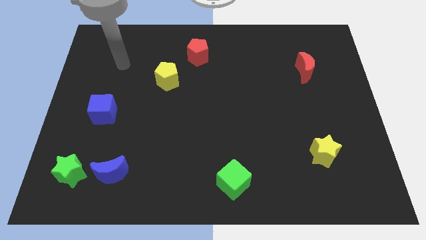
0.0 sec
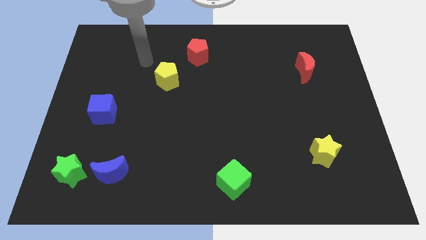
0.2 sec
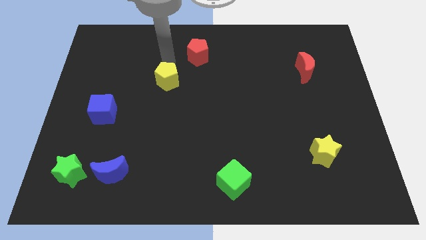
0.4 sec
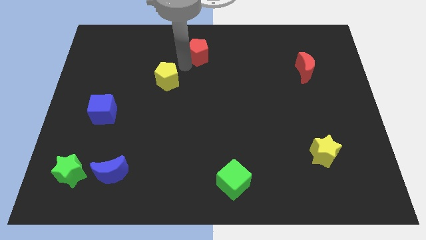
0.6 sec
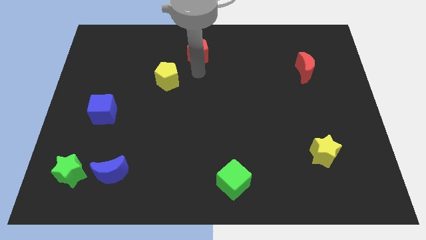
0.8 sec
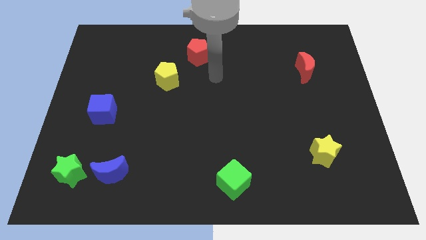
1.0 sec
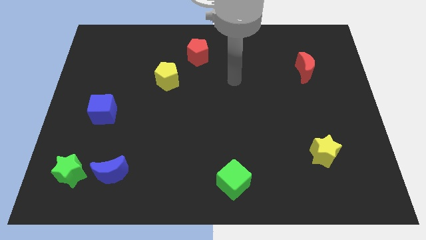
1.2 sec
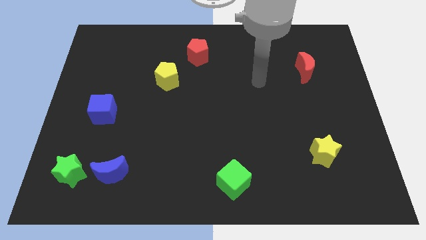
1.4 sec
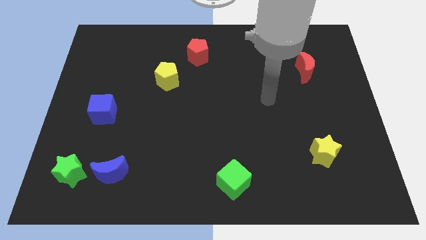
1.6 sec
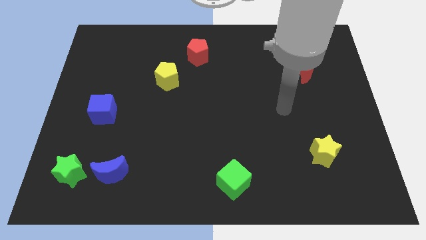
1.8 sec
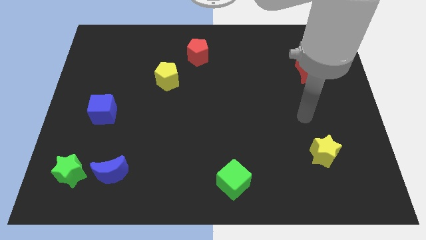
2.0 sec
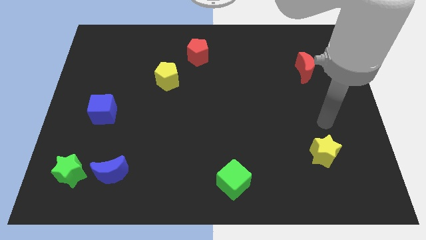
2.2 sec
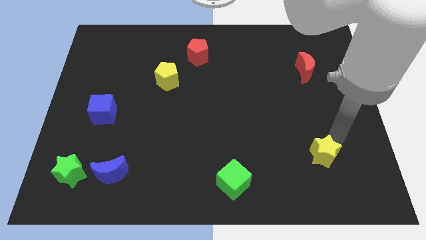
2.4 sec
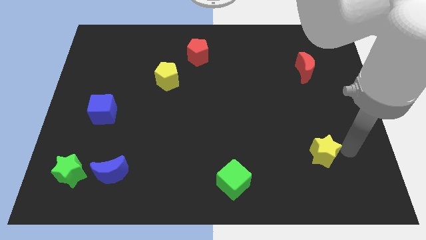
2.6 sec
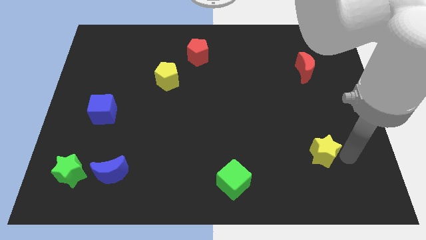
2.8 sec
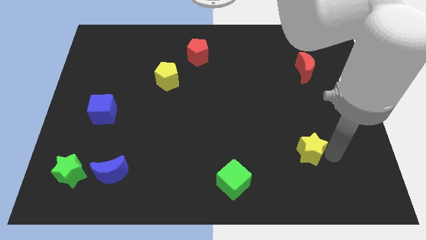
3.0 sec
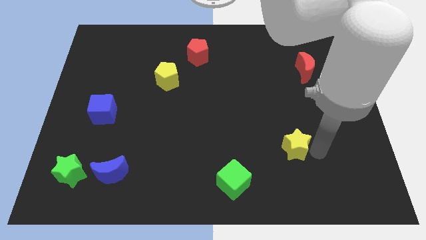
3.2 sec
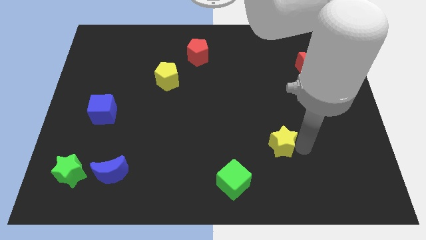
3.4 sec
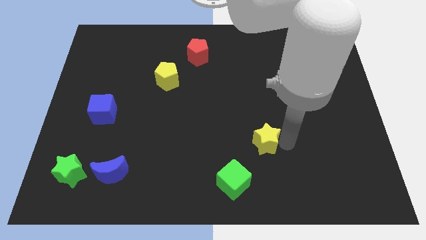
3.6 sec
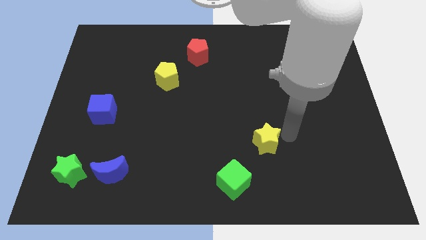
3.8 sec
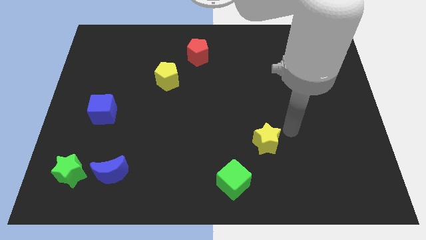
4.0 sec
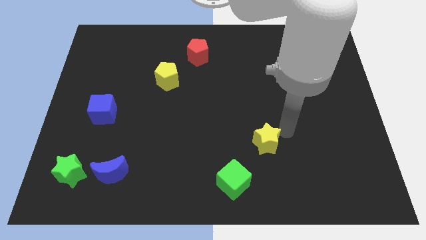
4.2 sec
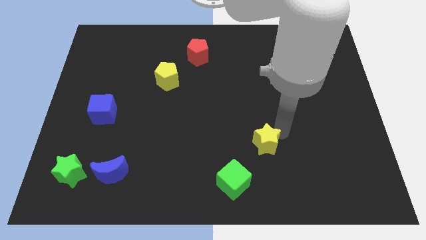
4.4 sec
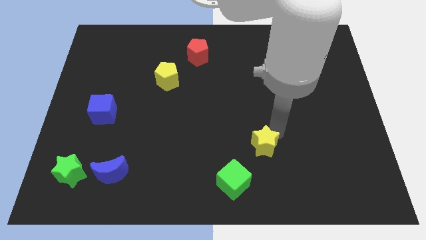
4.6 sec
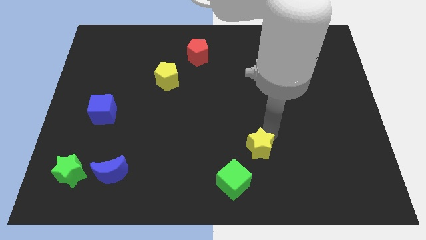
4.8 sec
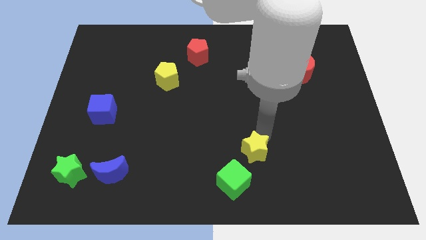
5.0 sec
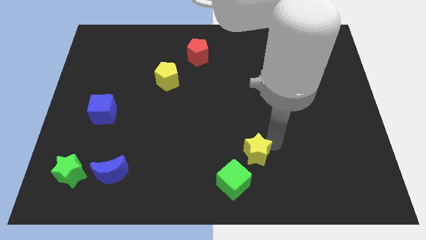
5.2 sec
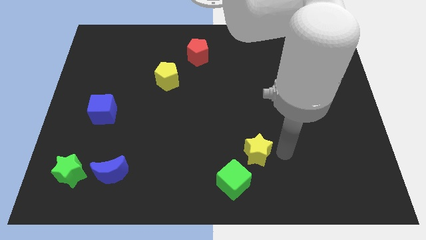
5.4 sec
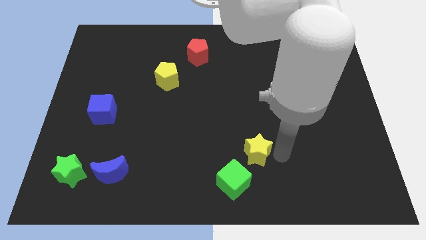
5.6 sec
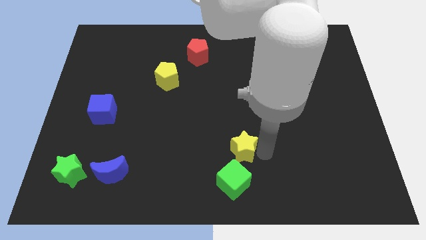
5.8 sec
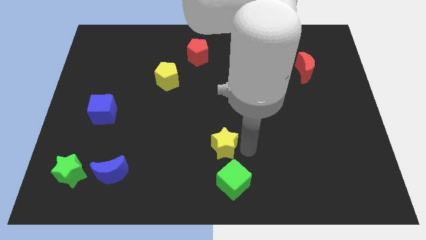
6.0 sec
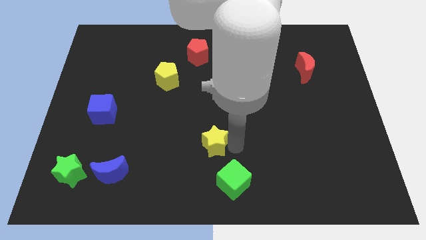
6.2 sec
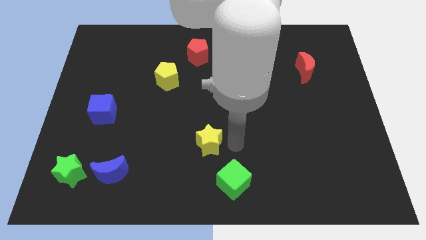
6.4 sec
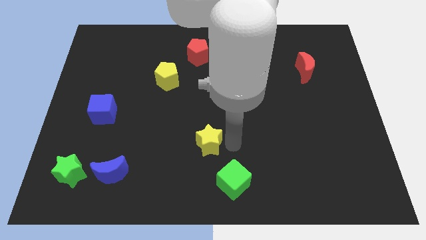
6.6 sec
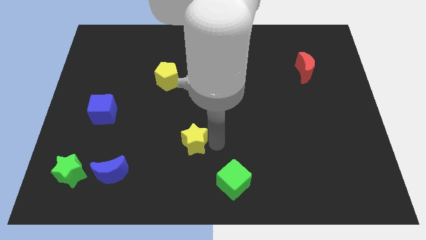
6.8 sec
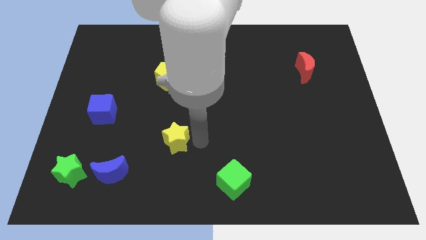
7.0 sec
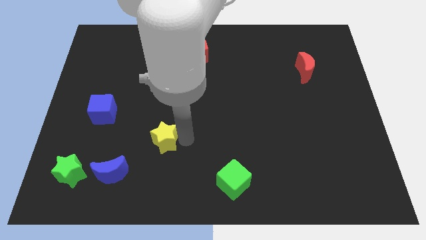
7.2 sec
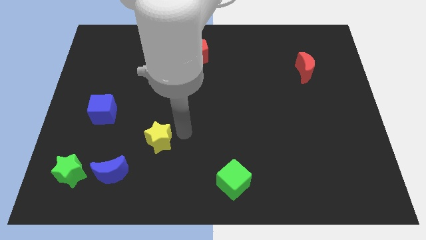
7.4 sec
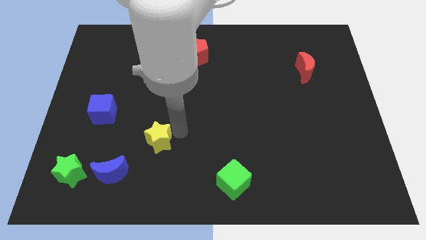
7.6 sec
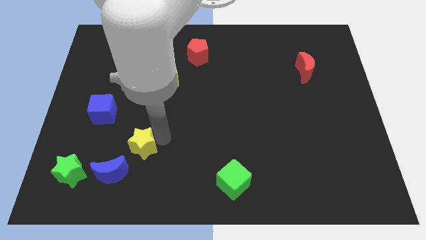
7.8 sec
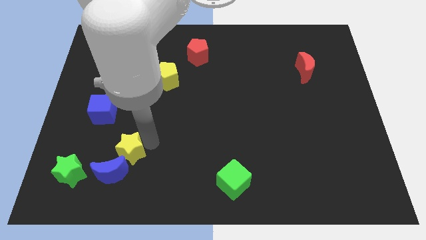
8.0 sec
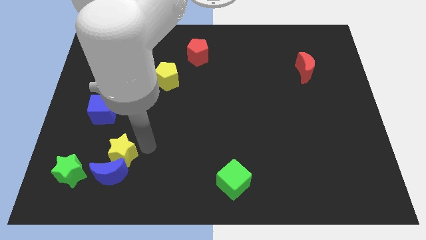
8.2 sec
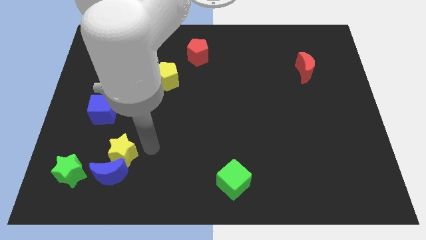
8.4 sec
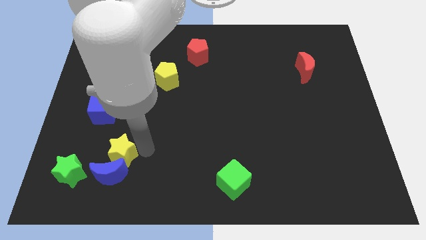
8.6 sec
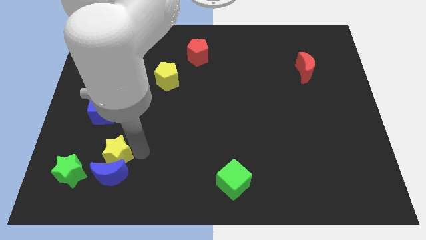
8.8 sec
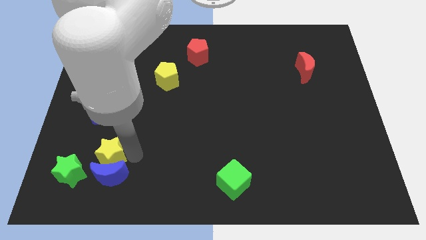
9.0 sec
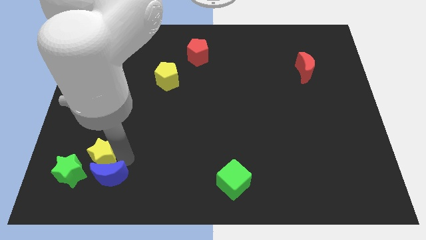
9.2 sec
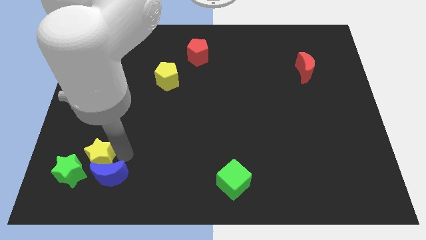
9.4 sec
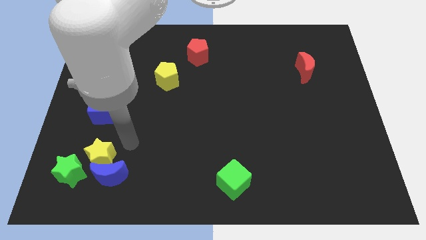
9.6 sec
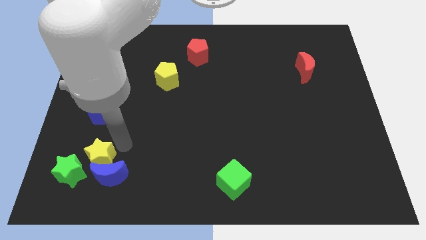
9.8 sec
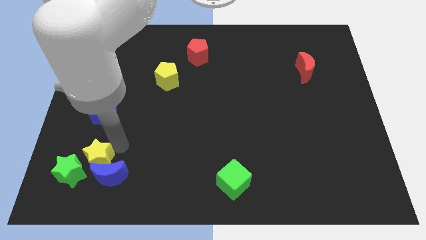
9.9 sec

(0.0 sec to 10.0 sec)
push the yellow star to the green star

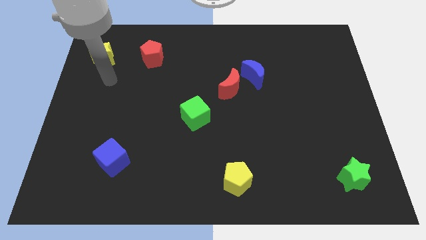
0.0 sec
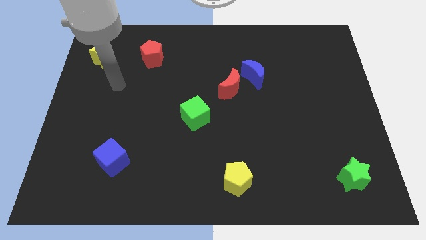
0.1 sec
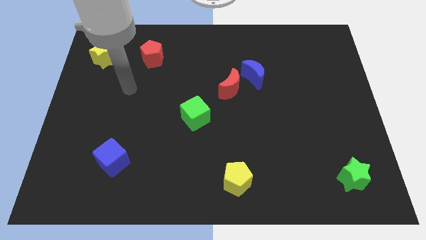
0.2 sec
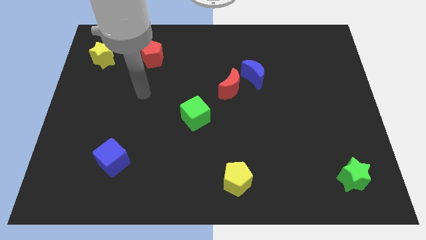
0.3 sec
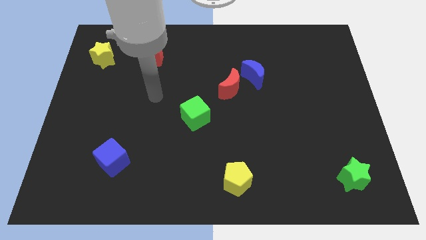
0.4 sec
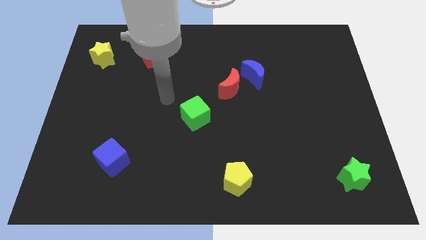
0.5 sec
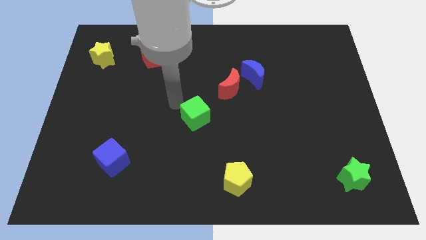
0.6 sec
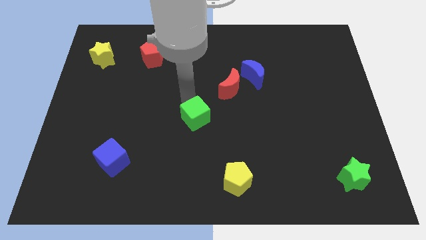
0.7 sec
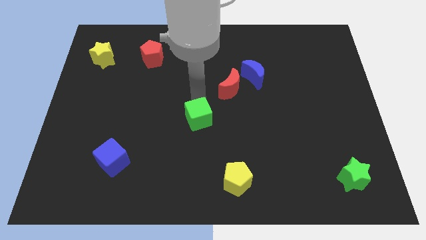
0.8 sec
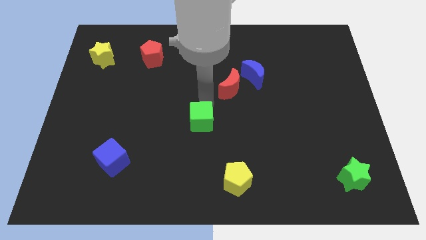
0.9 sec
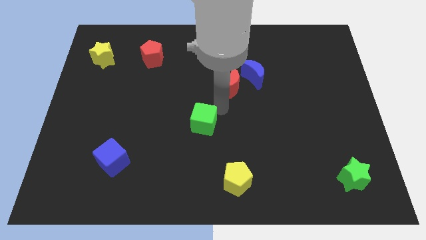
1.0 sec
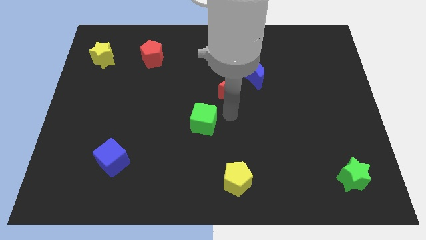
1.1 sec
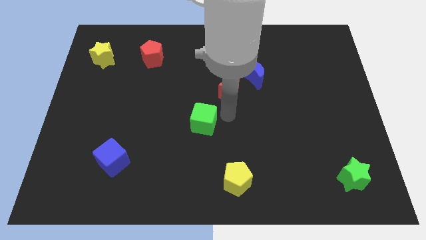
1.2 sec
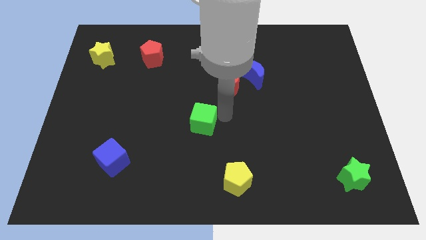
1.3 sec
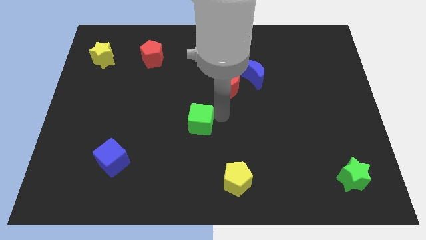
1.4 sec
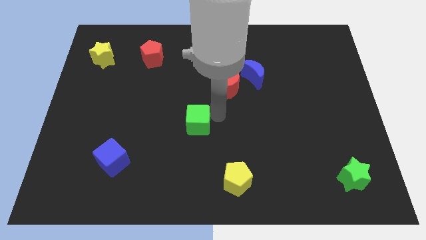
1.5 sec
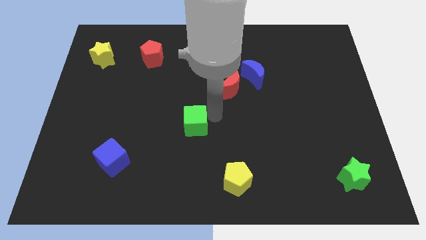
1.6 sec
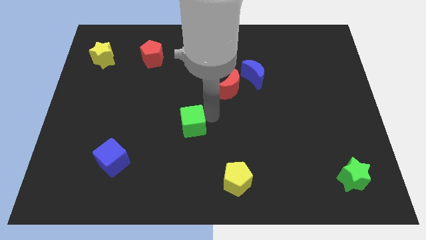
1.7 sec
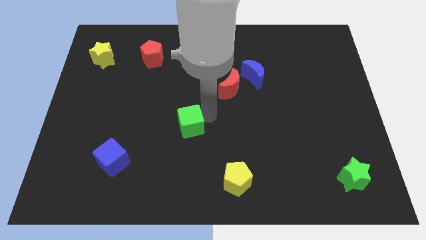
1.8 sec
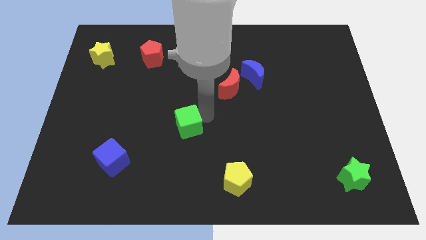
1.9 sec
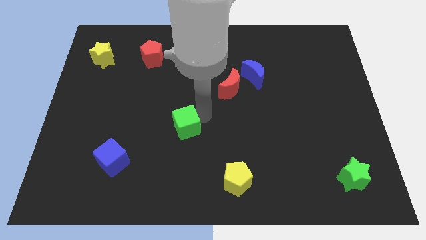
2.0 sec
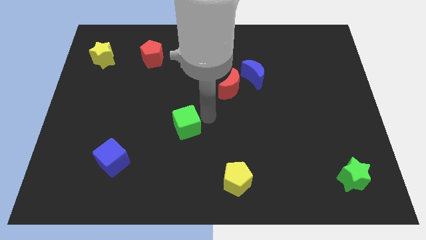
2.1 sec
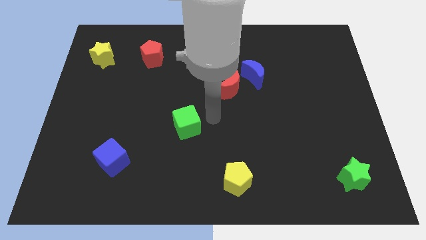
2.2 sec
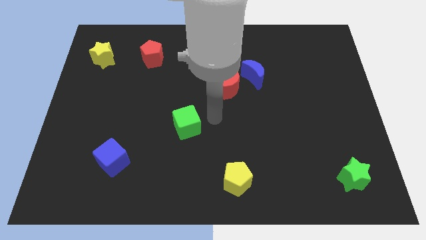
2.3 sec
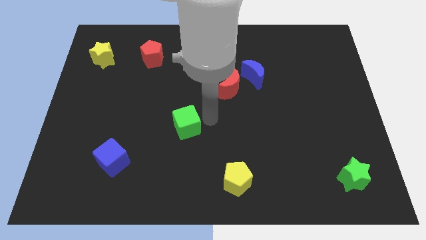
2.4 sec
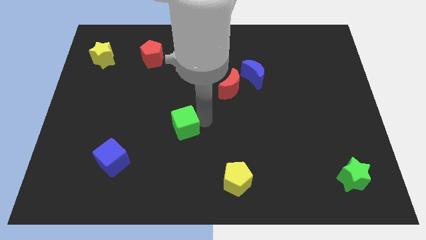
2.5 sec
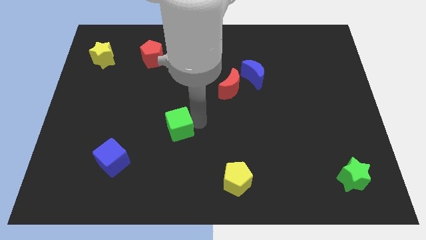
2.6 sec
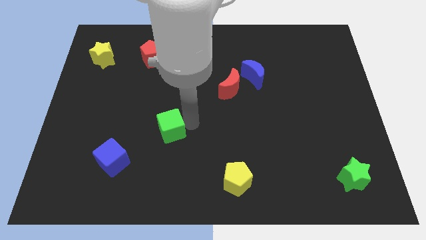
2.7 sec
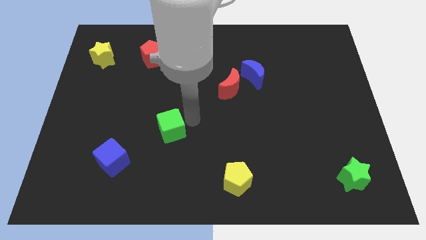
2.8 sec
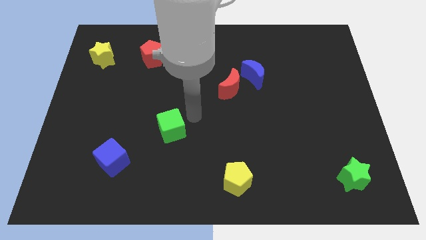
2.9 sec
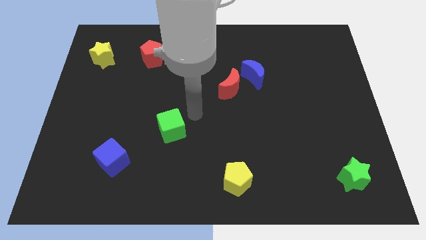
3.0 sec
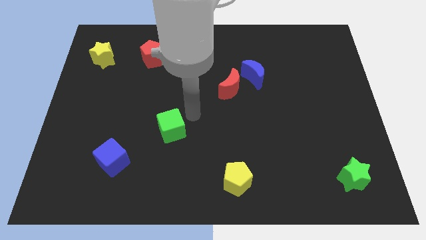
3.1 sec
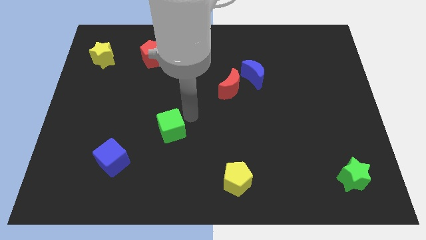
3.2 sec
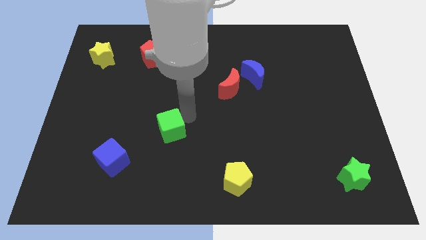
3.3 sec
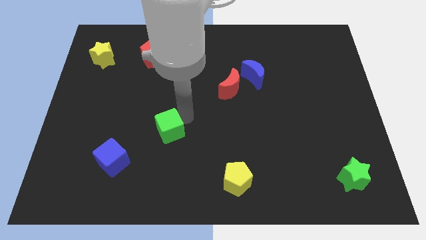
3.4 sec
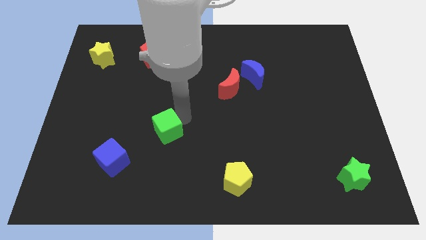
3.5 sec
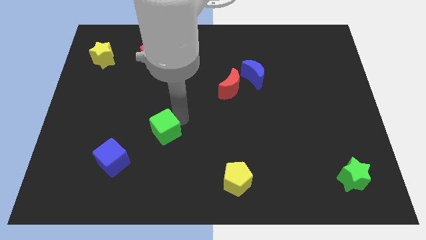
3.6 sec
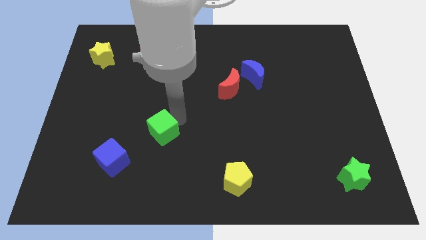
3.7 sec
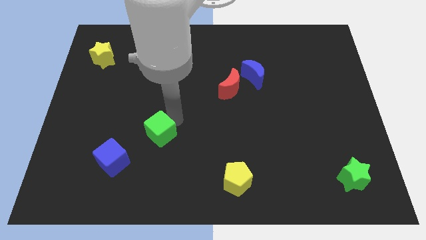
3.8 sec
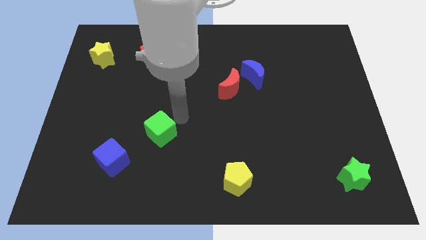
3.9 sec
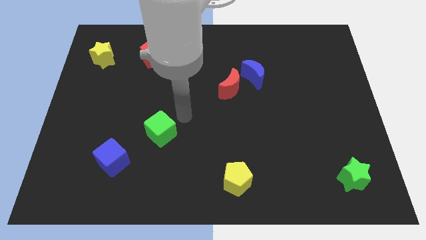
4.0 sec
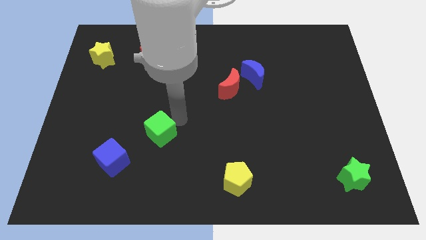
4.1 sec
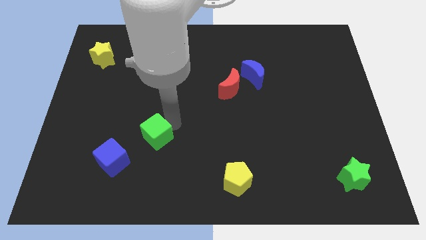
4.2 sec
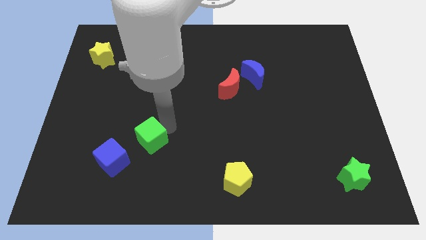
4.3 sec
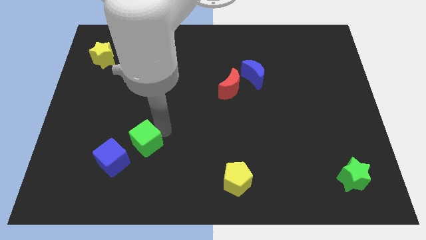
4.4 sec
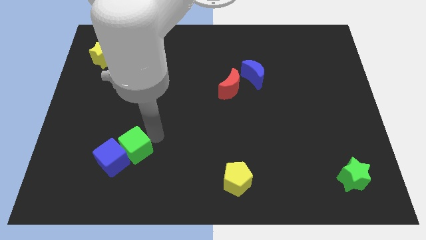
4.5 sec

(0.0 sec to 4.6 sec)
push the green cube to the blue cube
